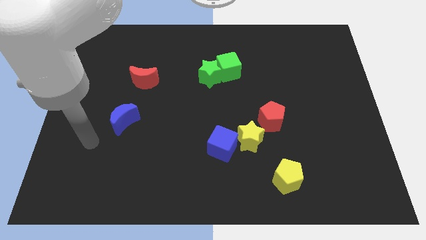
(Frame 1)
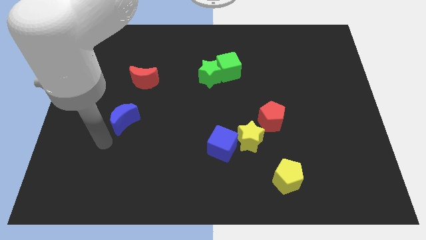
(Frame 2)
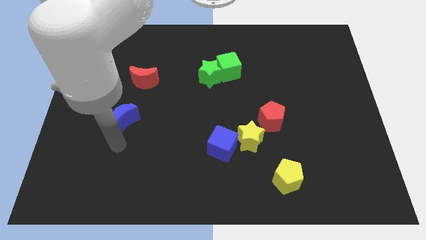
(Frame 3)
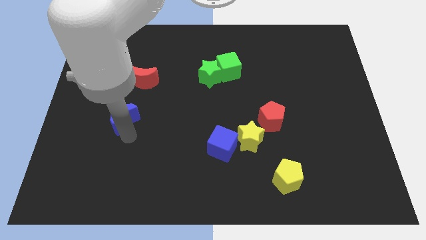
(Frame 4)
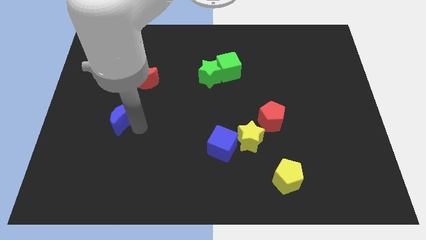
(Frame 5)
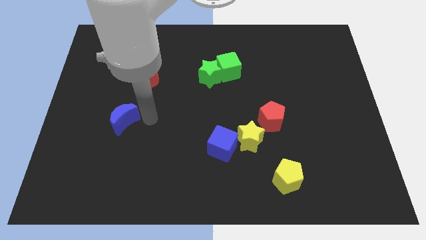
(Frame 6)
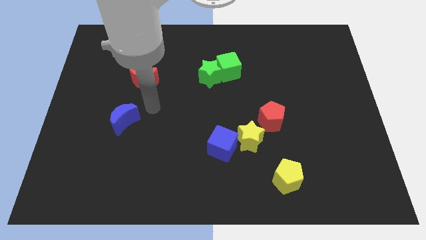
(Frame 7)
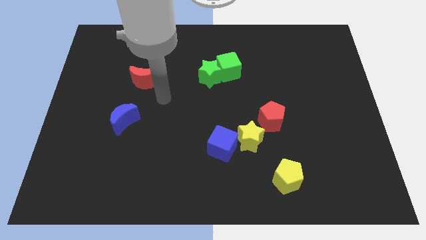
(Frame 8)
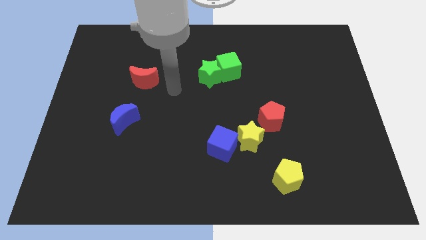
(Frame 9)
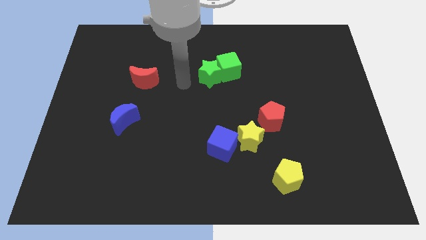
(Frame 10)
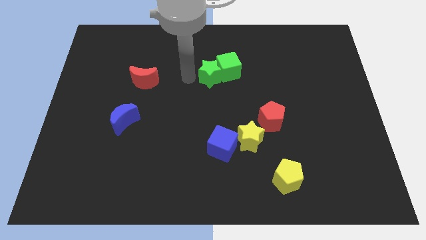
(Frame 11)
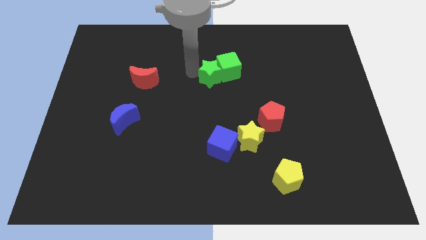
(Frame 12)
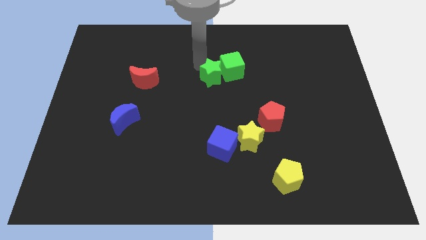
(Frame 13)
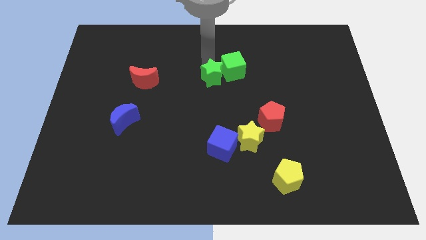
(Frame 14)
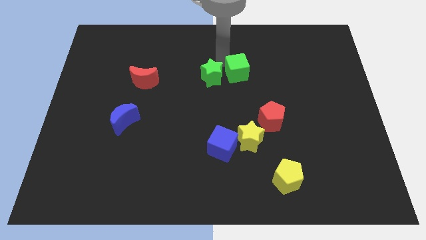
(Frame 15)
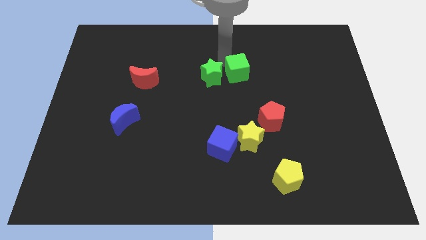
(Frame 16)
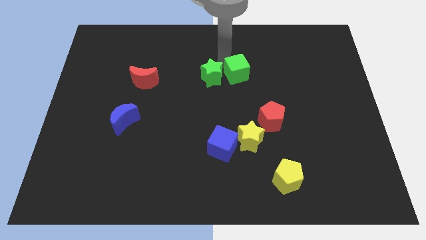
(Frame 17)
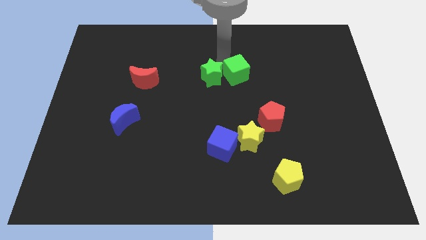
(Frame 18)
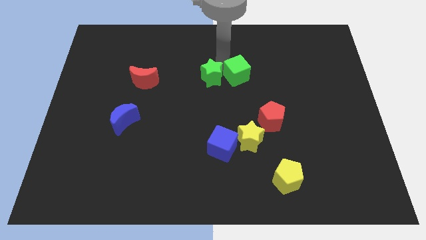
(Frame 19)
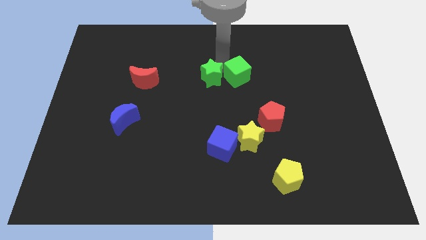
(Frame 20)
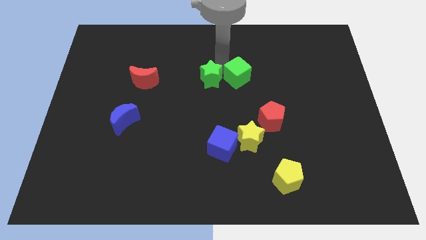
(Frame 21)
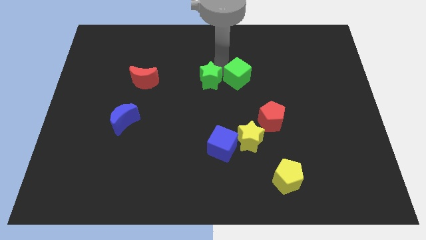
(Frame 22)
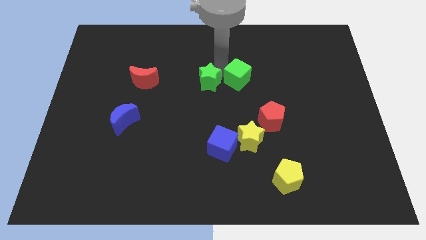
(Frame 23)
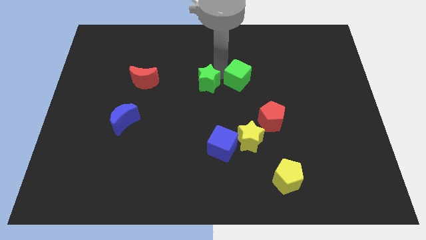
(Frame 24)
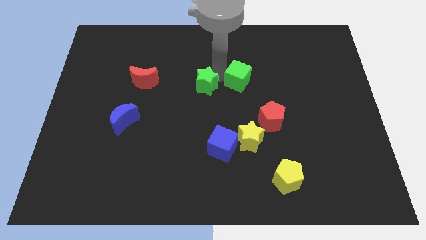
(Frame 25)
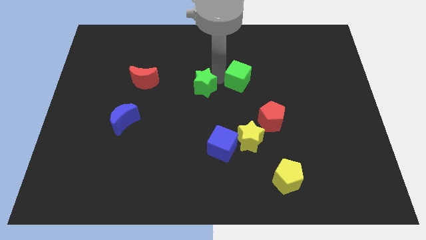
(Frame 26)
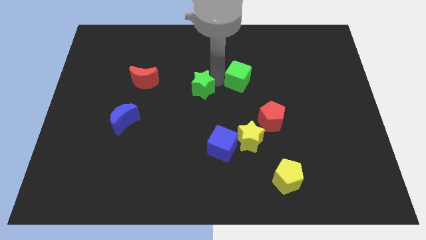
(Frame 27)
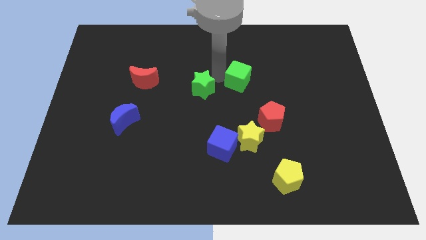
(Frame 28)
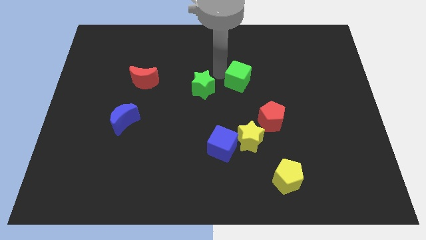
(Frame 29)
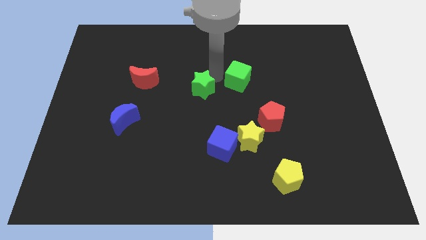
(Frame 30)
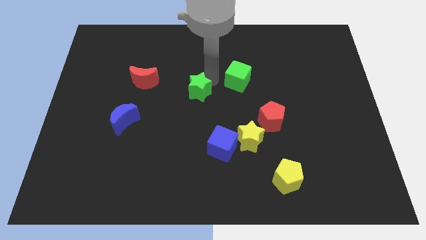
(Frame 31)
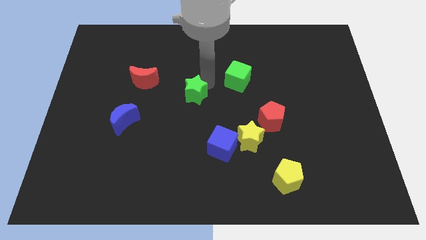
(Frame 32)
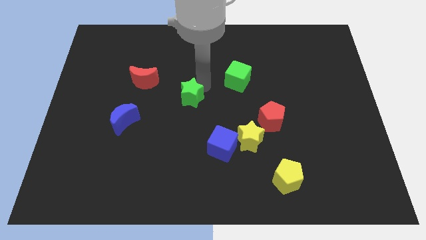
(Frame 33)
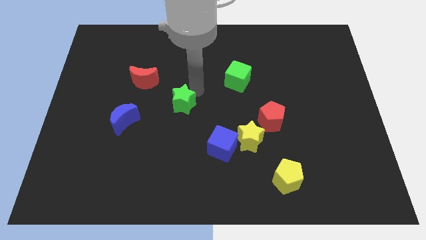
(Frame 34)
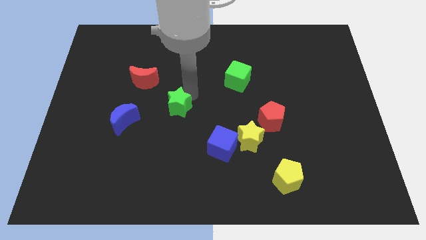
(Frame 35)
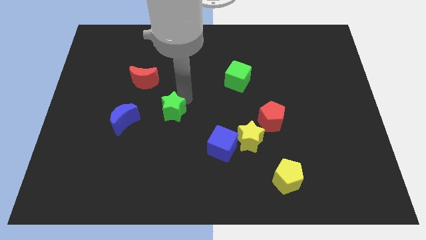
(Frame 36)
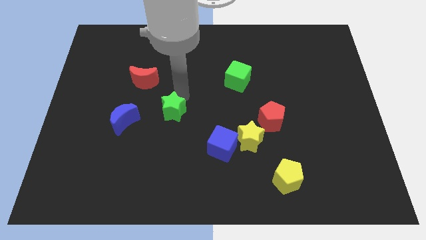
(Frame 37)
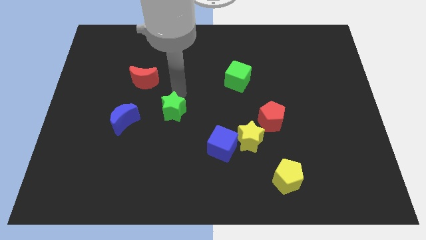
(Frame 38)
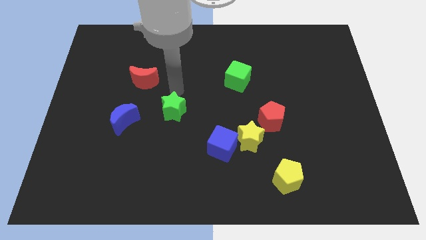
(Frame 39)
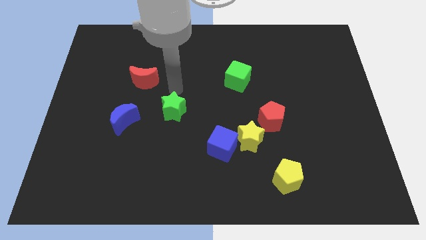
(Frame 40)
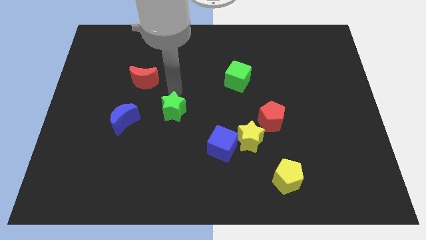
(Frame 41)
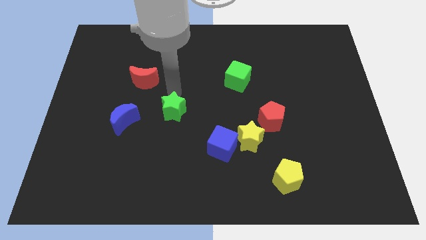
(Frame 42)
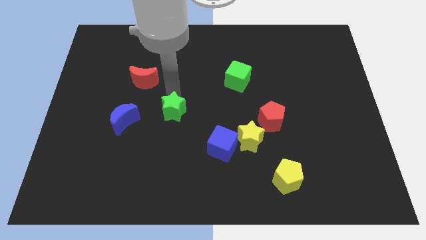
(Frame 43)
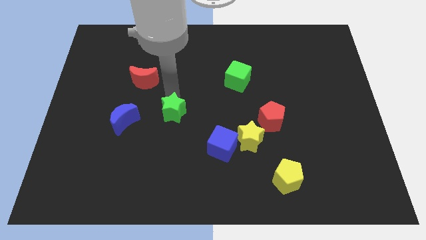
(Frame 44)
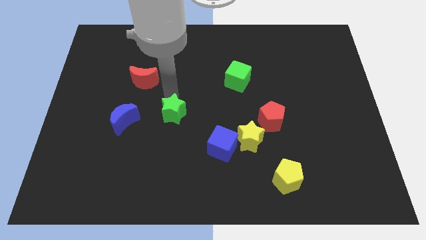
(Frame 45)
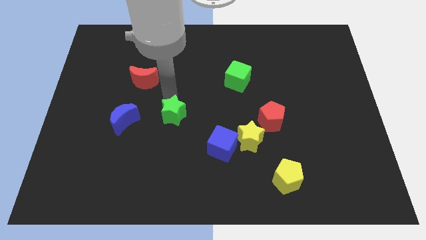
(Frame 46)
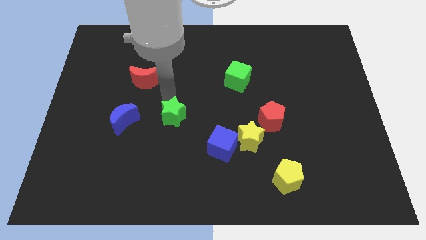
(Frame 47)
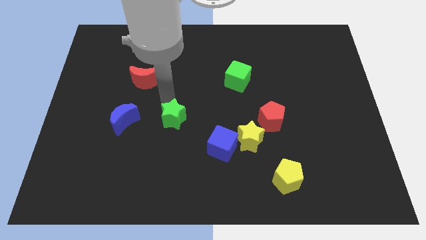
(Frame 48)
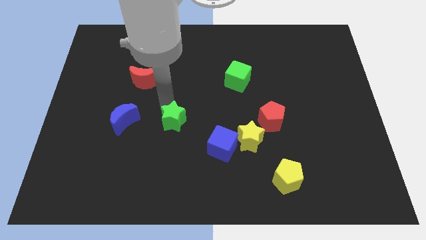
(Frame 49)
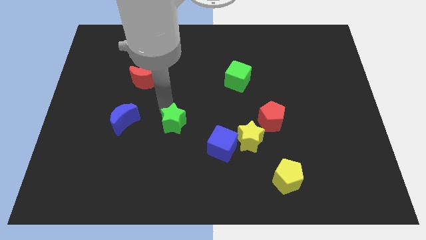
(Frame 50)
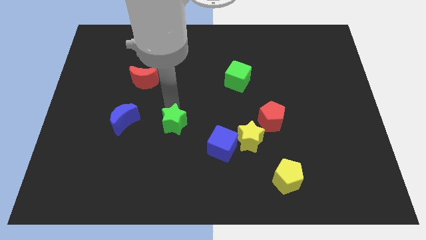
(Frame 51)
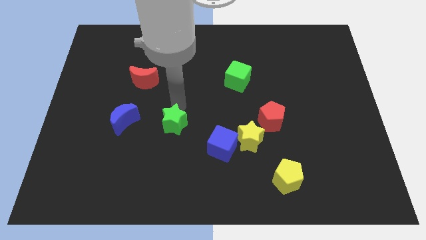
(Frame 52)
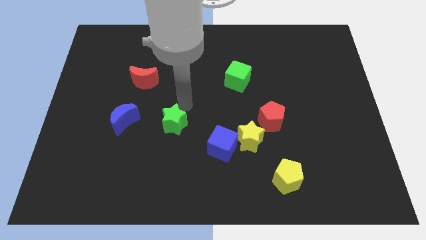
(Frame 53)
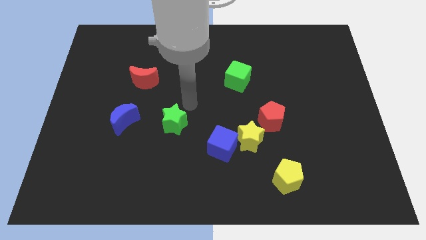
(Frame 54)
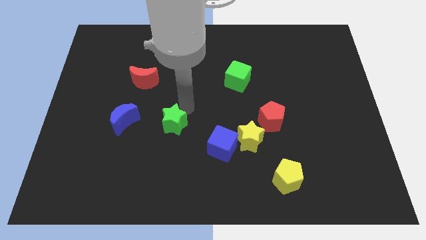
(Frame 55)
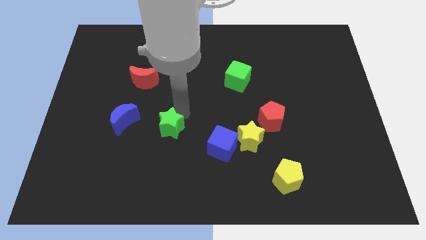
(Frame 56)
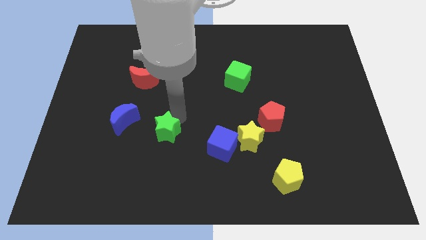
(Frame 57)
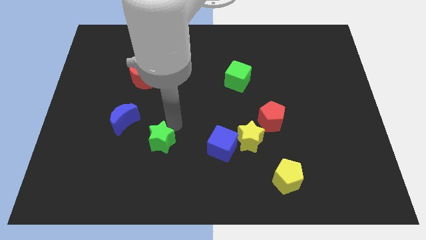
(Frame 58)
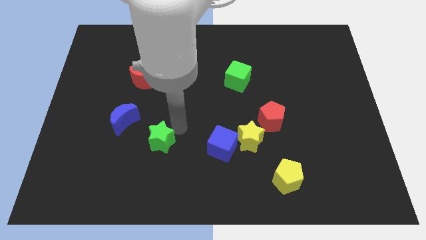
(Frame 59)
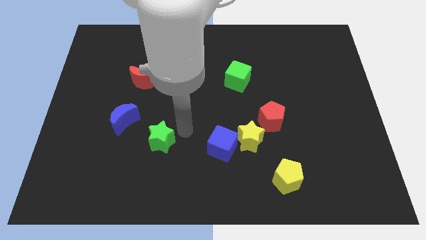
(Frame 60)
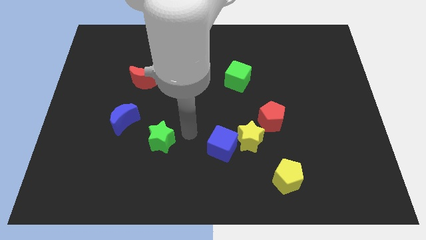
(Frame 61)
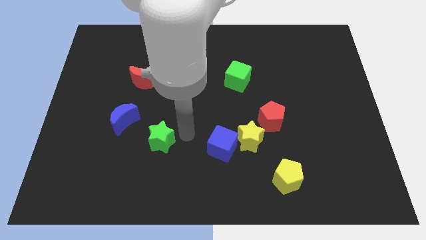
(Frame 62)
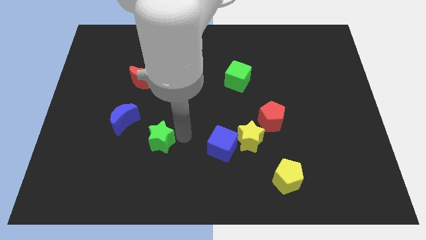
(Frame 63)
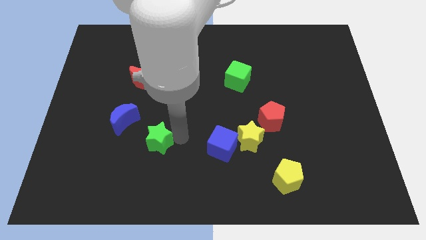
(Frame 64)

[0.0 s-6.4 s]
slide the green star diagonally down and to the left

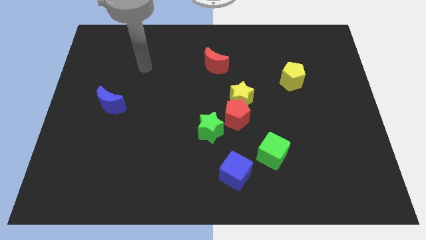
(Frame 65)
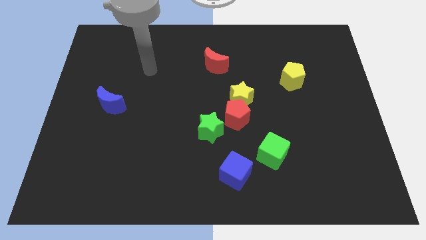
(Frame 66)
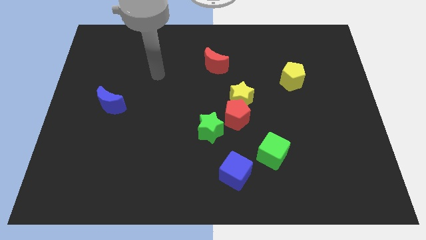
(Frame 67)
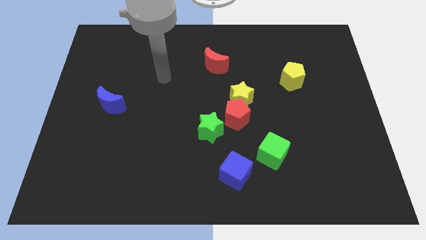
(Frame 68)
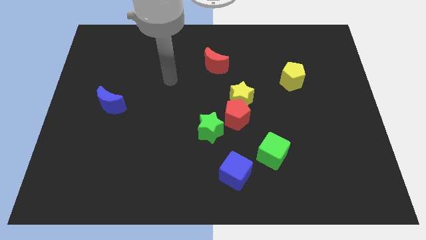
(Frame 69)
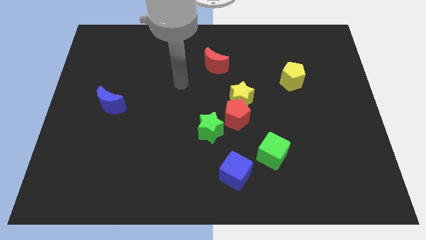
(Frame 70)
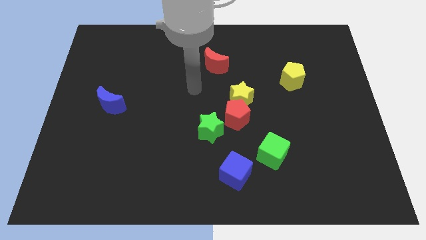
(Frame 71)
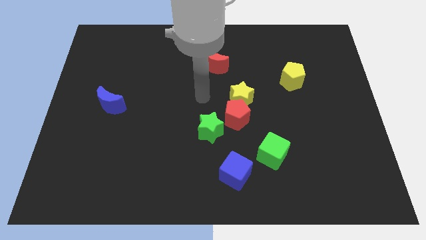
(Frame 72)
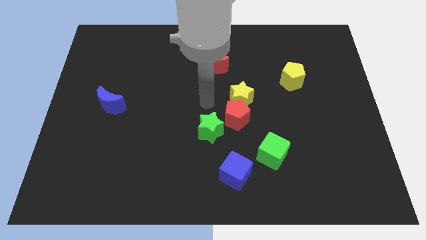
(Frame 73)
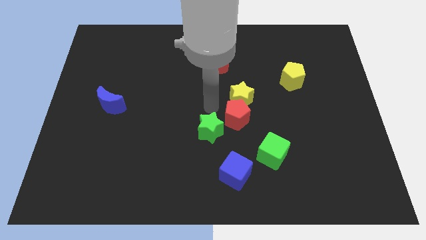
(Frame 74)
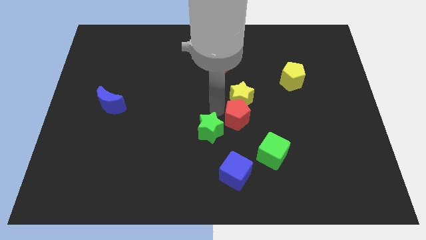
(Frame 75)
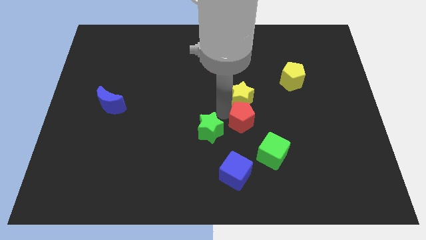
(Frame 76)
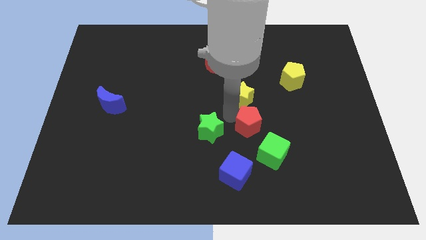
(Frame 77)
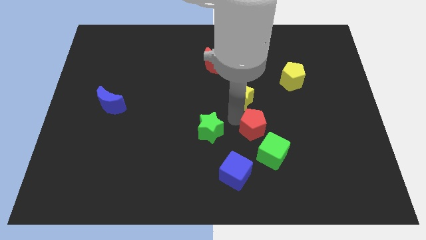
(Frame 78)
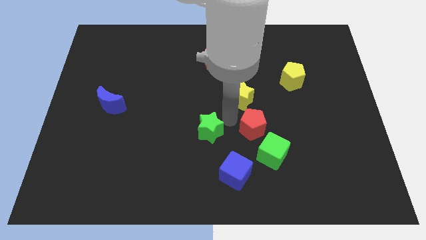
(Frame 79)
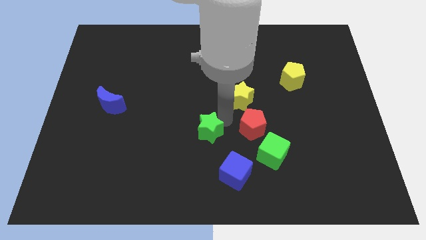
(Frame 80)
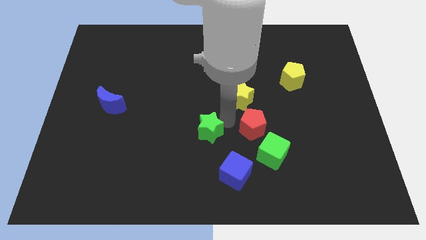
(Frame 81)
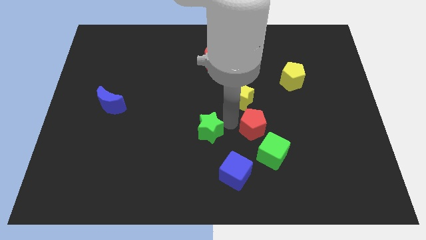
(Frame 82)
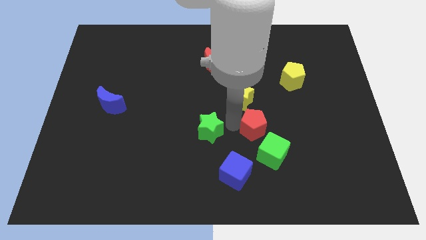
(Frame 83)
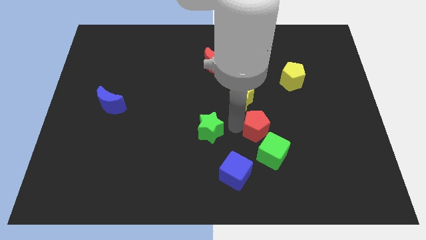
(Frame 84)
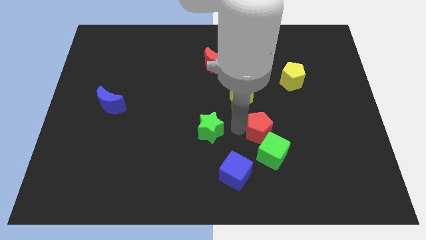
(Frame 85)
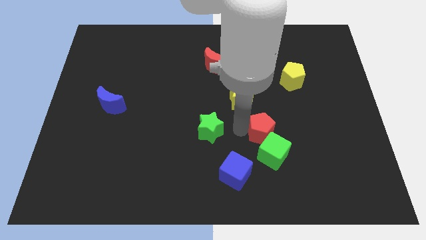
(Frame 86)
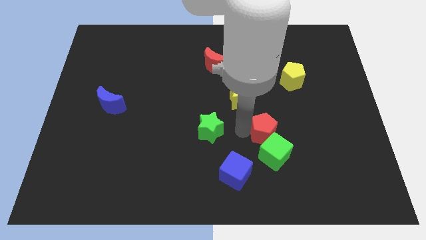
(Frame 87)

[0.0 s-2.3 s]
slightly slide the red pentagon downwards and to the right
